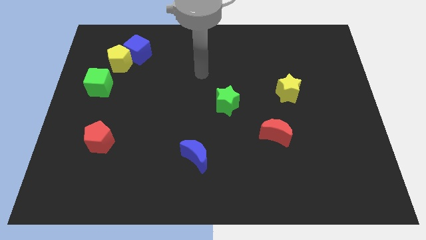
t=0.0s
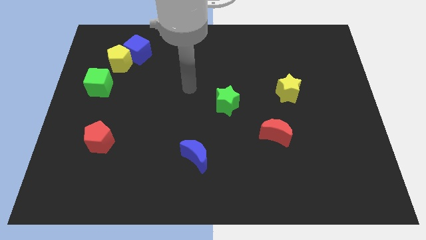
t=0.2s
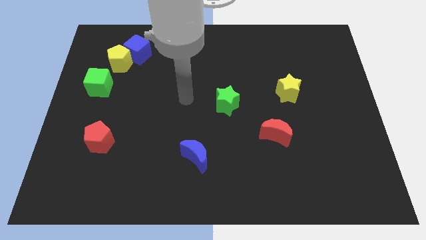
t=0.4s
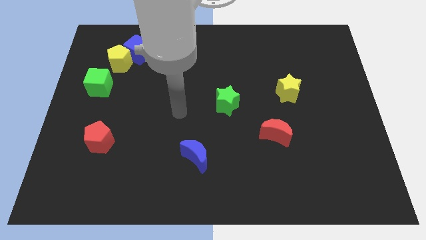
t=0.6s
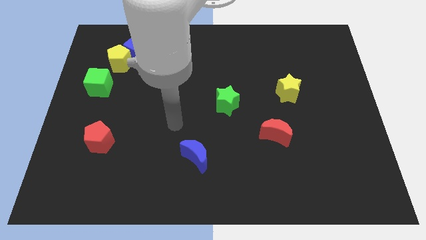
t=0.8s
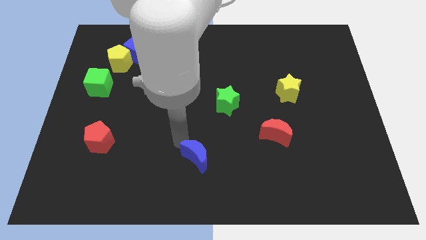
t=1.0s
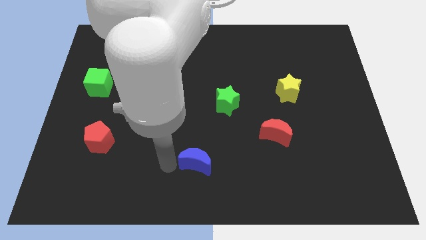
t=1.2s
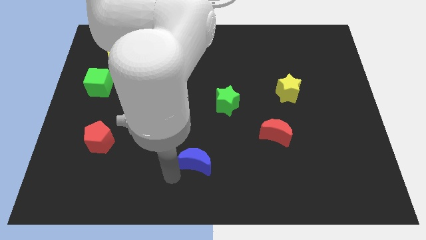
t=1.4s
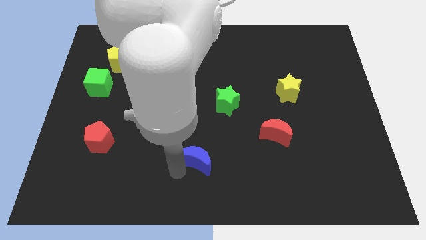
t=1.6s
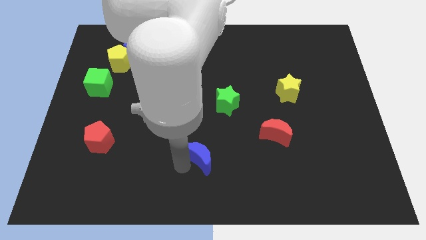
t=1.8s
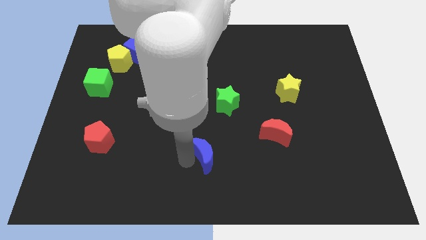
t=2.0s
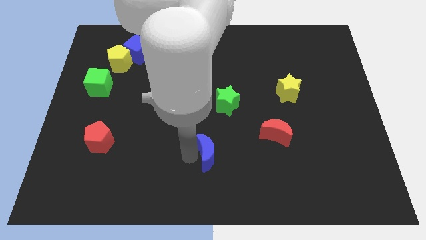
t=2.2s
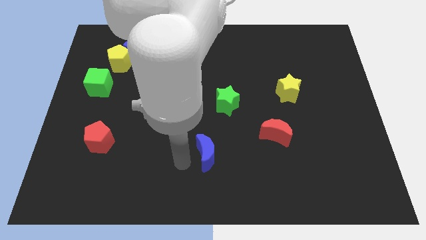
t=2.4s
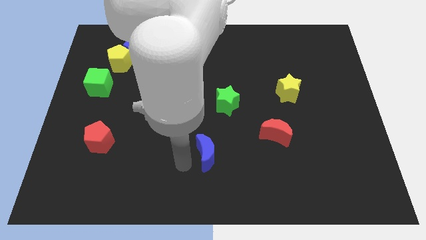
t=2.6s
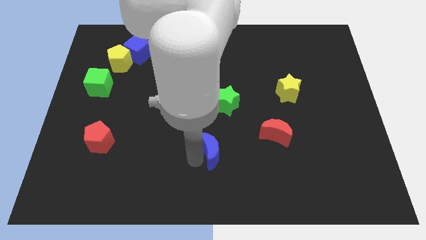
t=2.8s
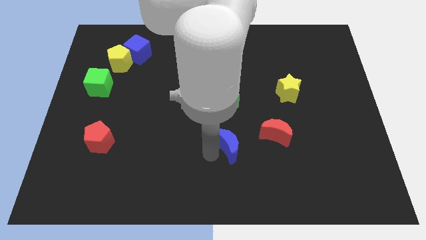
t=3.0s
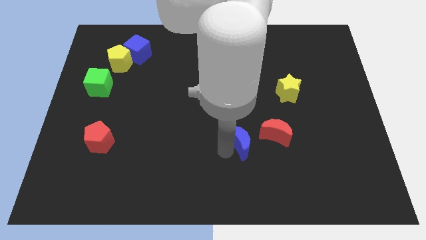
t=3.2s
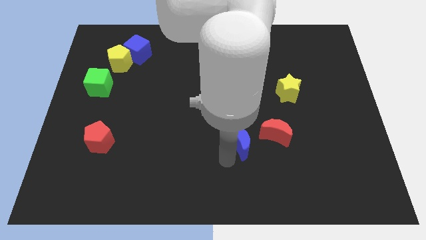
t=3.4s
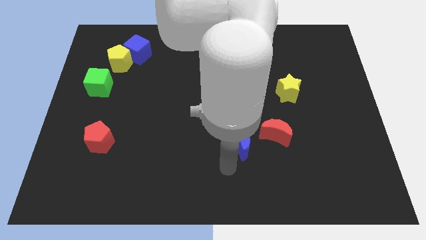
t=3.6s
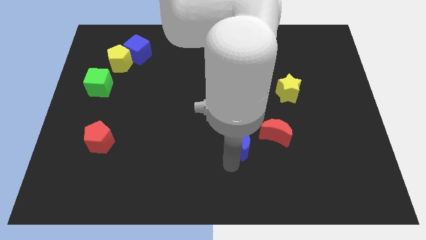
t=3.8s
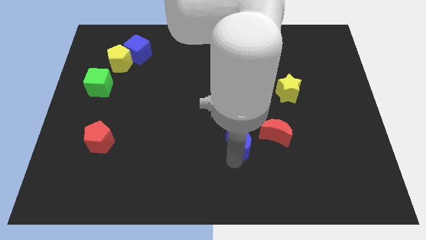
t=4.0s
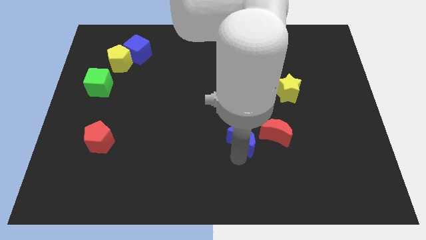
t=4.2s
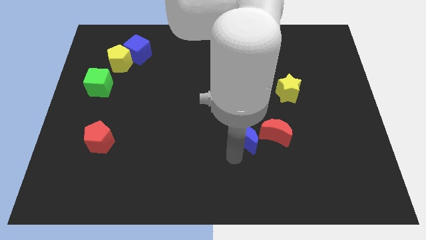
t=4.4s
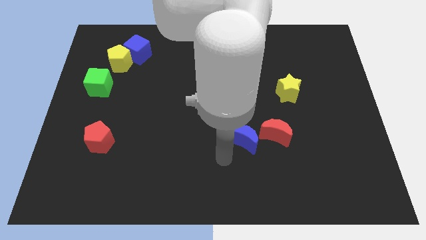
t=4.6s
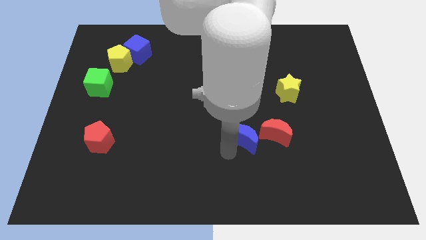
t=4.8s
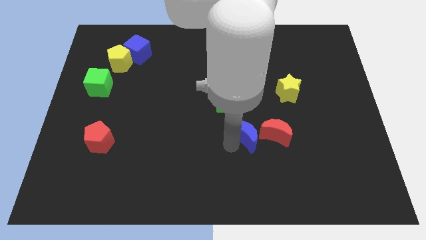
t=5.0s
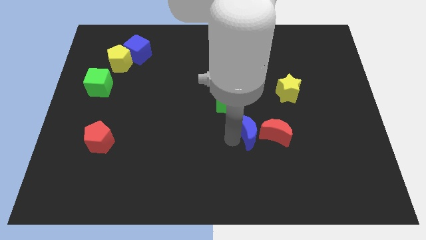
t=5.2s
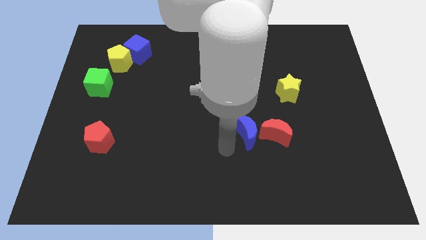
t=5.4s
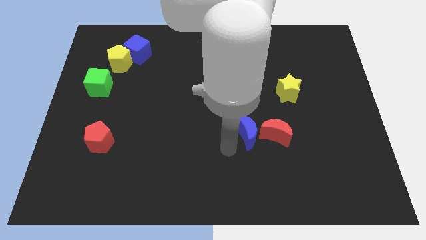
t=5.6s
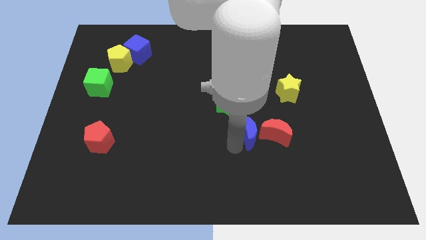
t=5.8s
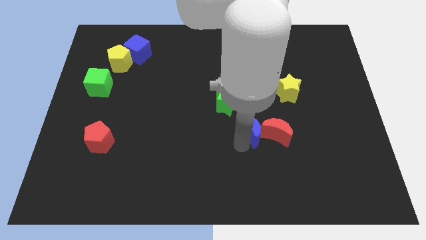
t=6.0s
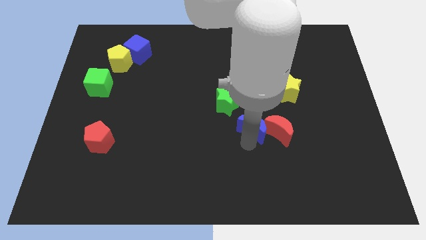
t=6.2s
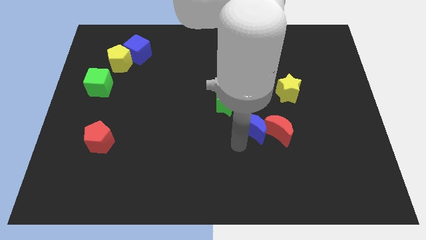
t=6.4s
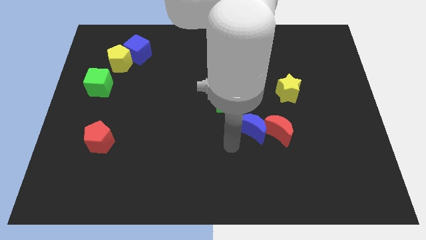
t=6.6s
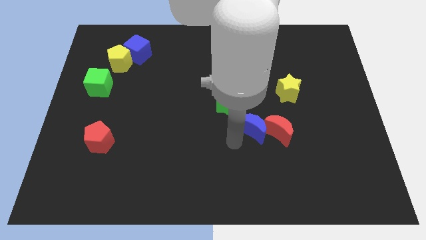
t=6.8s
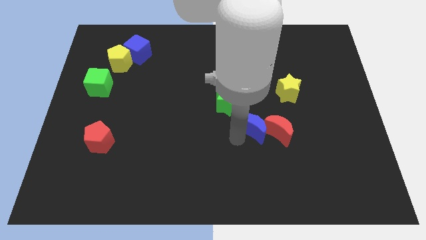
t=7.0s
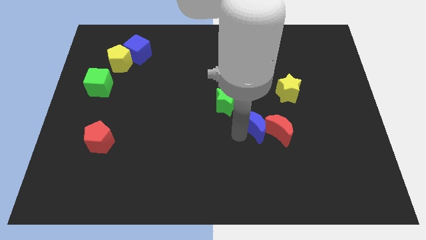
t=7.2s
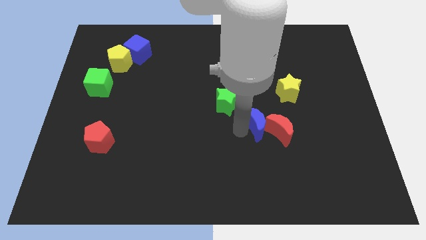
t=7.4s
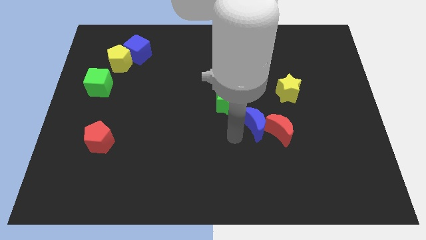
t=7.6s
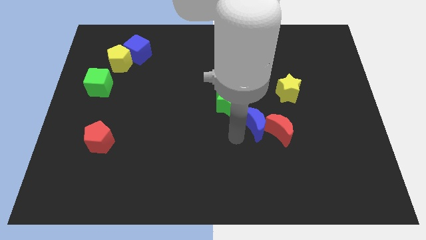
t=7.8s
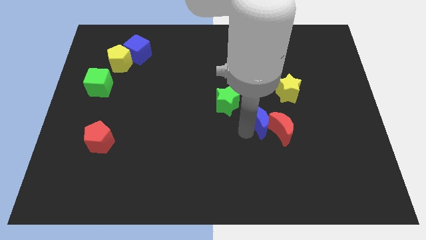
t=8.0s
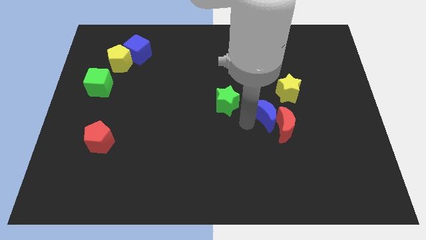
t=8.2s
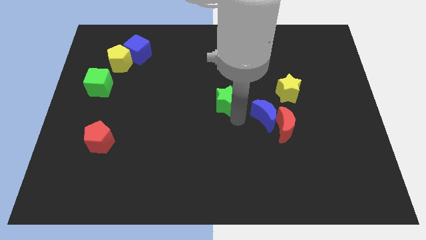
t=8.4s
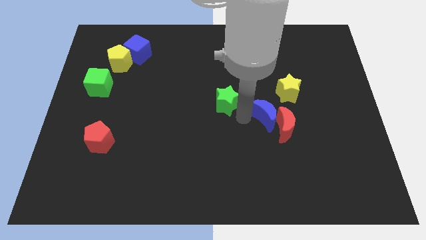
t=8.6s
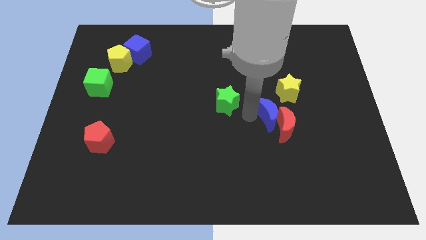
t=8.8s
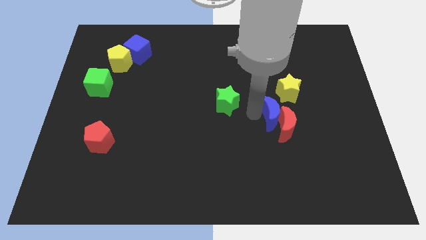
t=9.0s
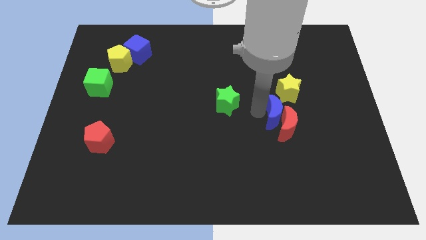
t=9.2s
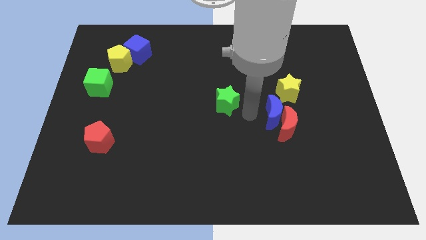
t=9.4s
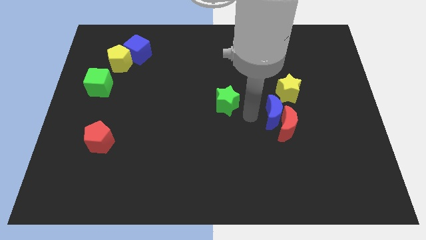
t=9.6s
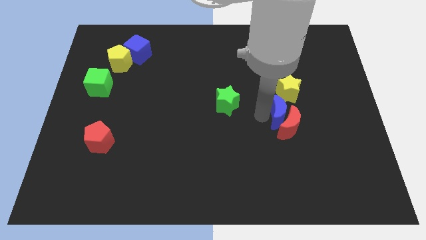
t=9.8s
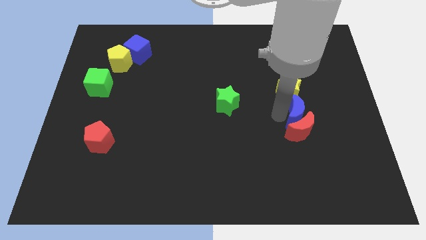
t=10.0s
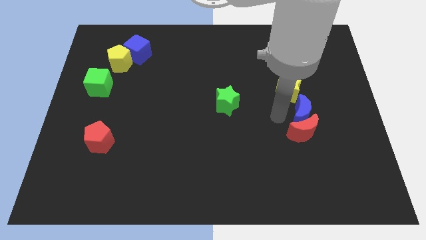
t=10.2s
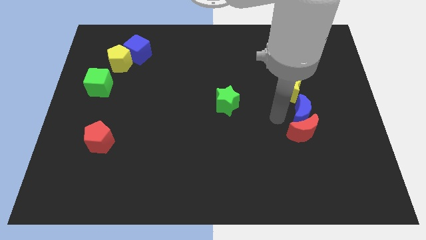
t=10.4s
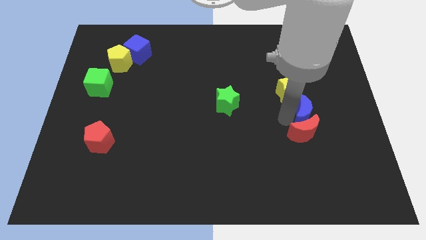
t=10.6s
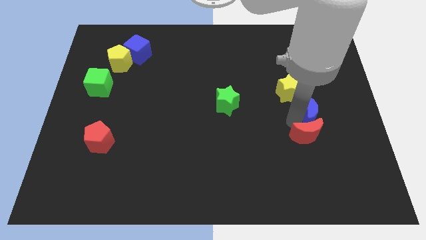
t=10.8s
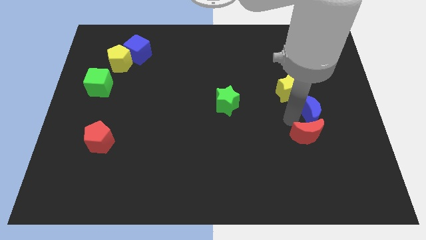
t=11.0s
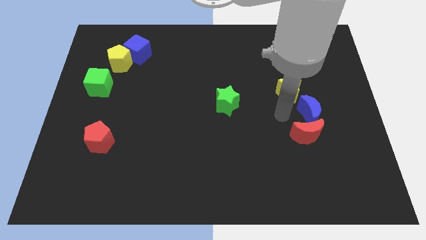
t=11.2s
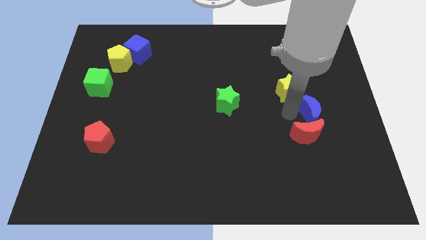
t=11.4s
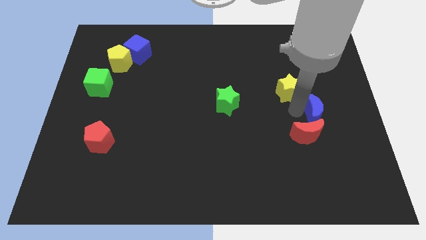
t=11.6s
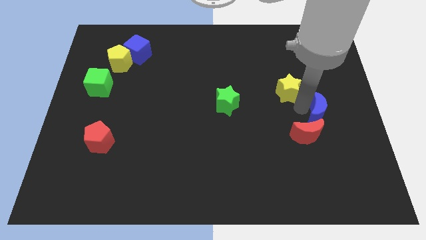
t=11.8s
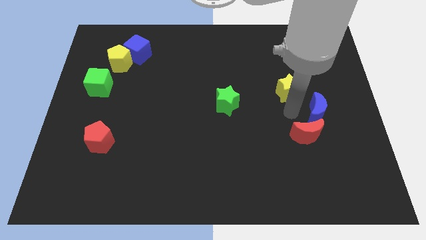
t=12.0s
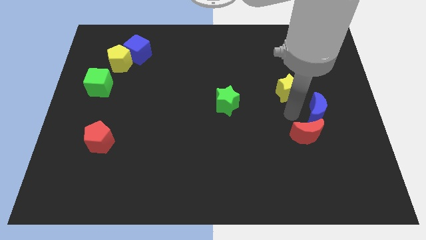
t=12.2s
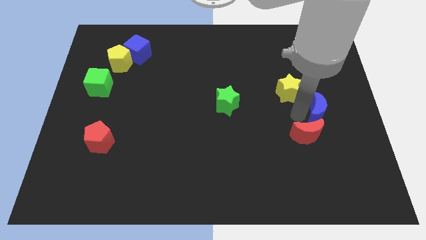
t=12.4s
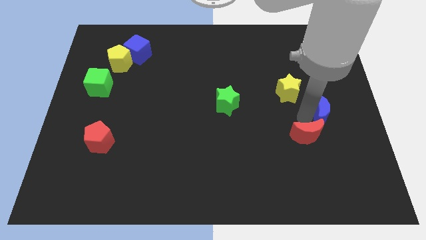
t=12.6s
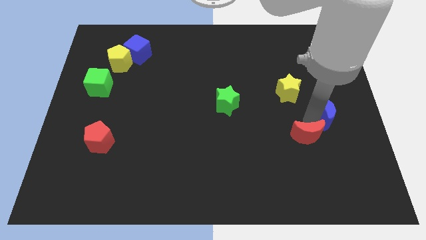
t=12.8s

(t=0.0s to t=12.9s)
push the blue moon to the right side
